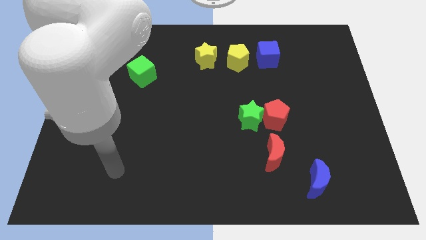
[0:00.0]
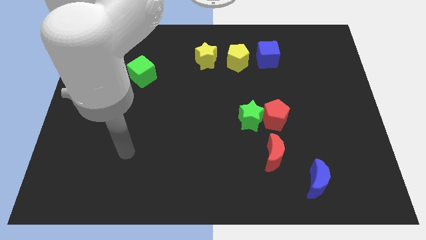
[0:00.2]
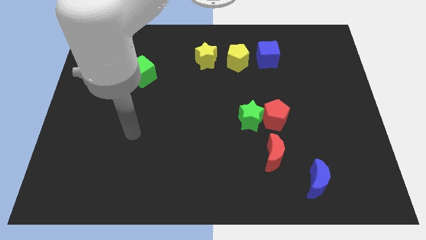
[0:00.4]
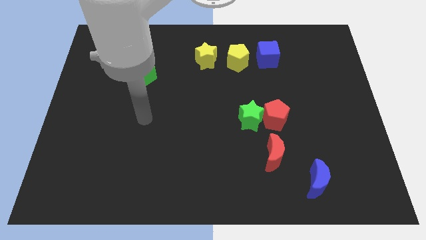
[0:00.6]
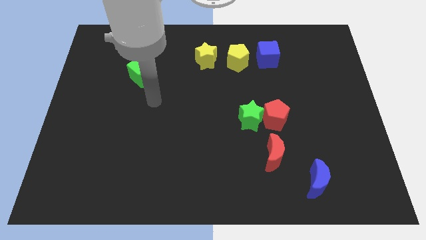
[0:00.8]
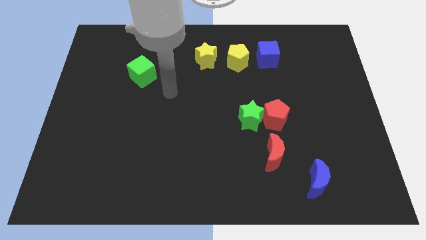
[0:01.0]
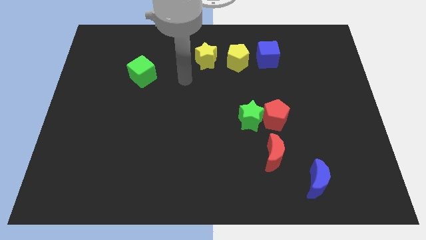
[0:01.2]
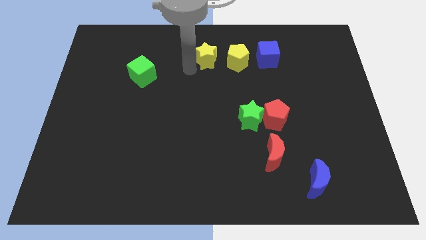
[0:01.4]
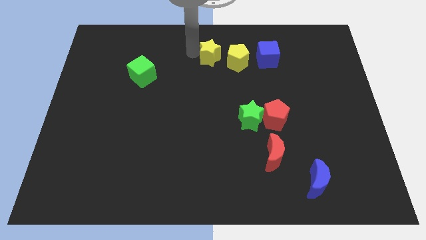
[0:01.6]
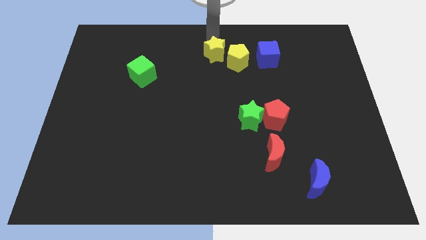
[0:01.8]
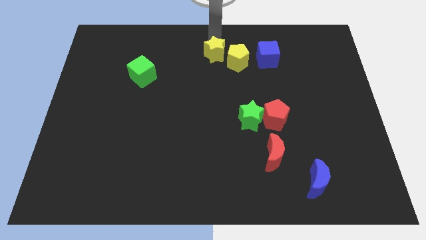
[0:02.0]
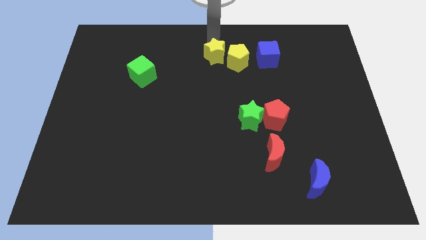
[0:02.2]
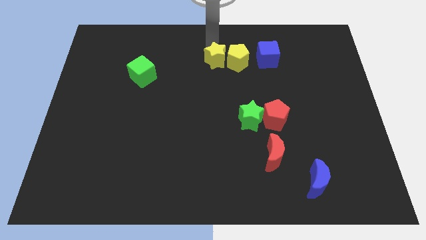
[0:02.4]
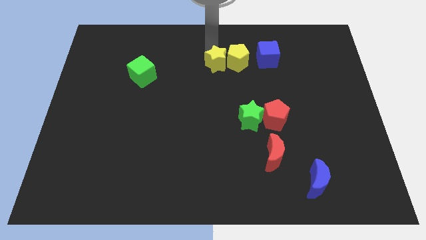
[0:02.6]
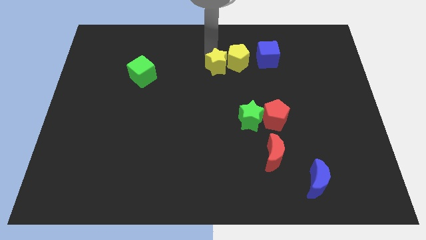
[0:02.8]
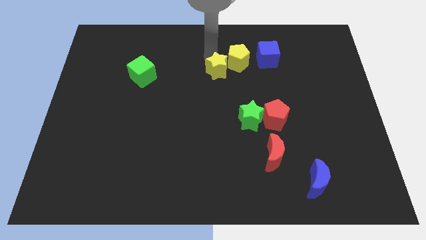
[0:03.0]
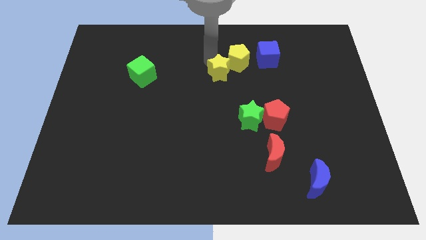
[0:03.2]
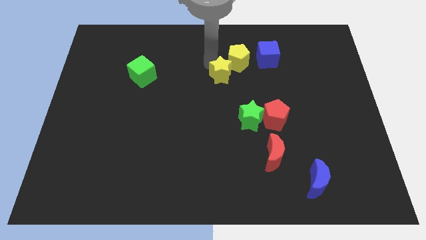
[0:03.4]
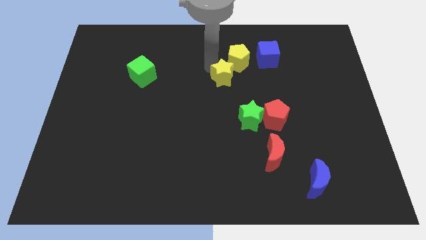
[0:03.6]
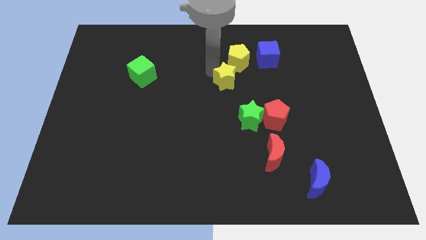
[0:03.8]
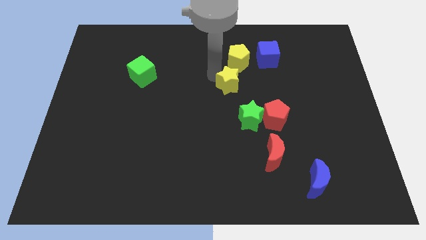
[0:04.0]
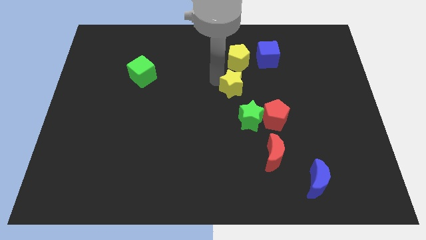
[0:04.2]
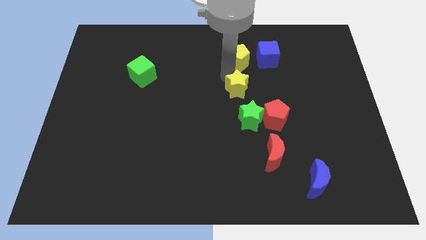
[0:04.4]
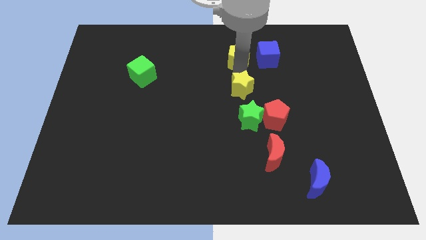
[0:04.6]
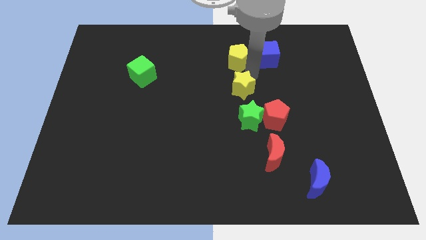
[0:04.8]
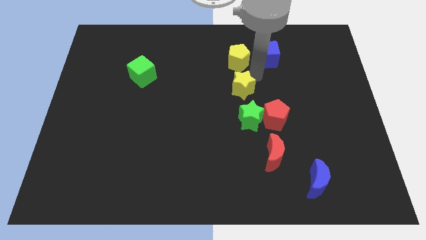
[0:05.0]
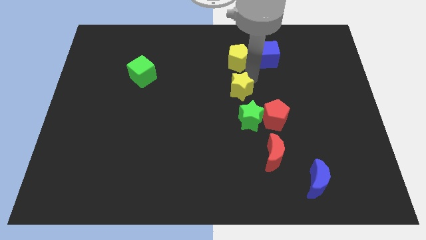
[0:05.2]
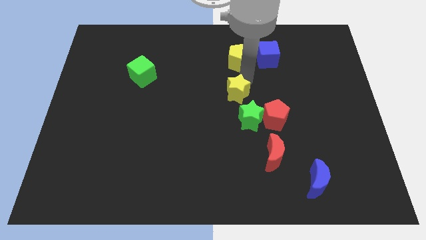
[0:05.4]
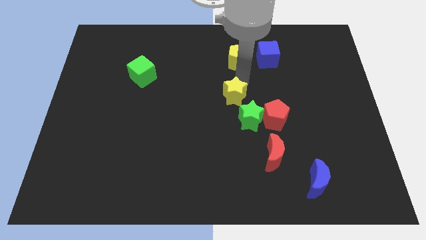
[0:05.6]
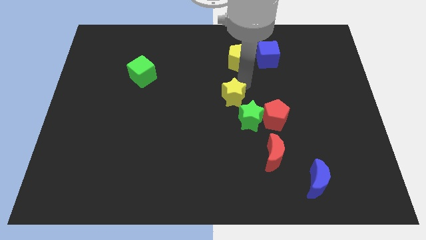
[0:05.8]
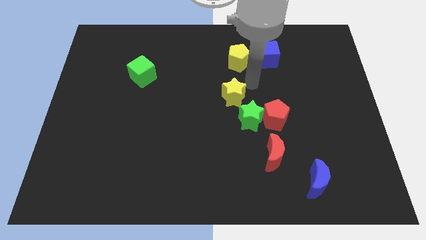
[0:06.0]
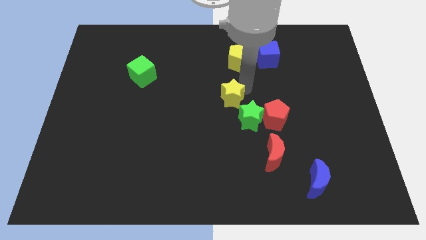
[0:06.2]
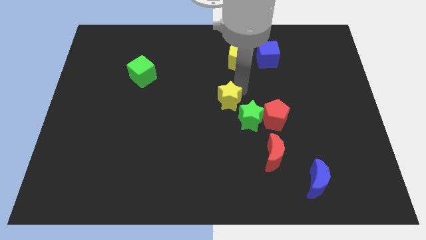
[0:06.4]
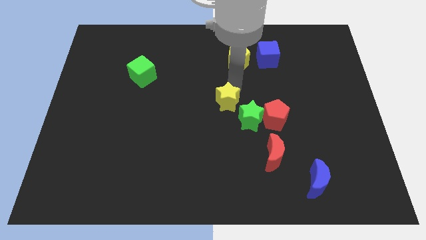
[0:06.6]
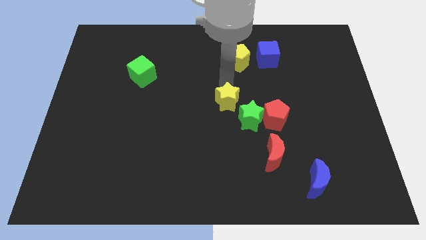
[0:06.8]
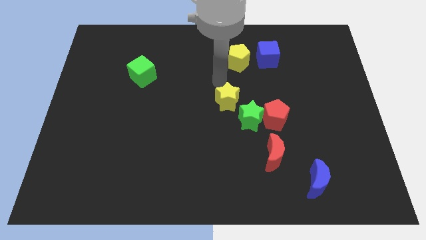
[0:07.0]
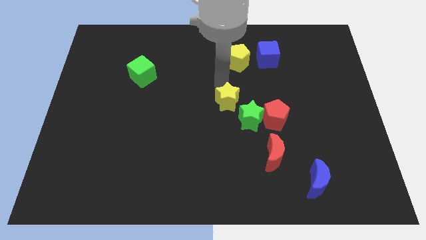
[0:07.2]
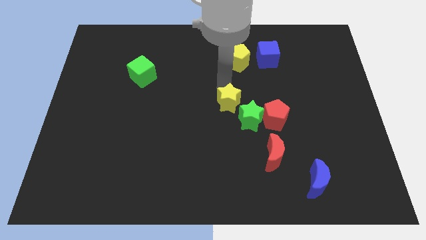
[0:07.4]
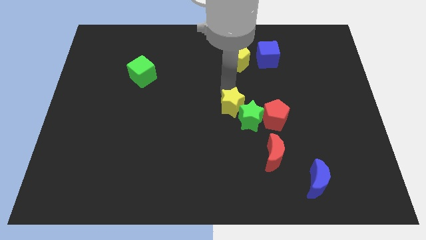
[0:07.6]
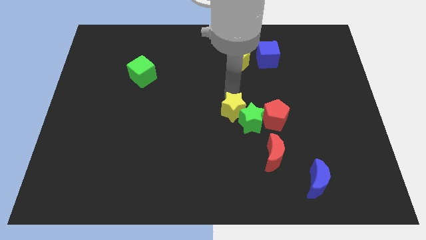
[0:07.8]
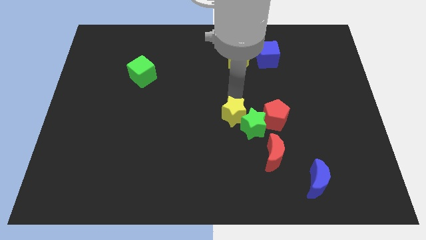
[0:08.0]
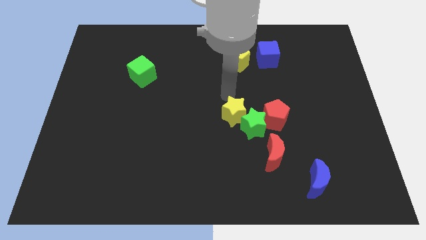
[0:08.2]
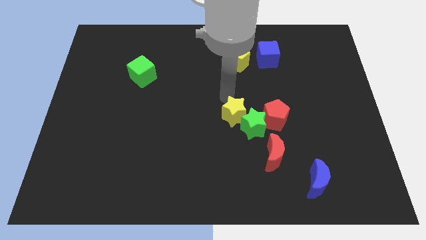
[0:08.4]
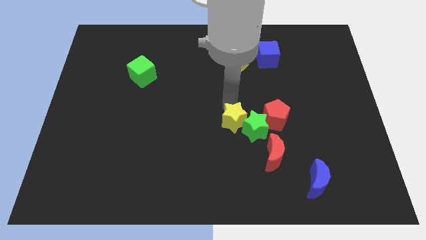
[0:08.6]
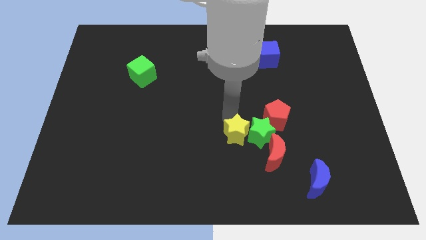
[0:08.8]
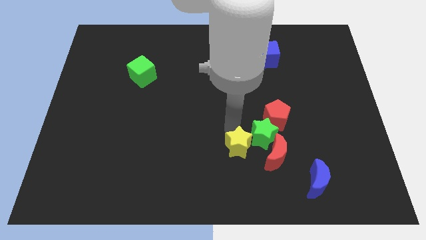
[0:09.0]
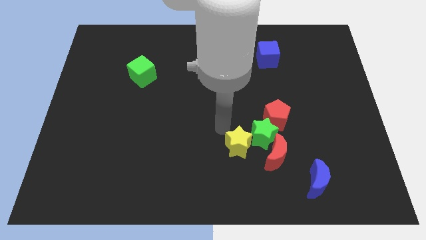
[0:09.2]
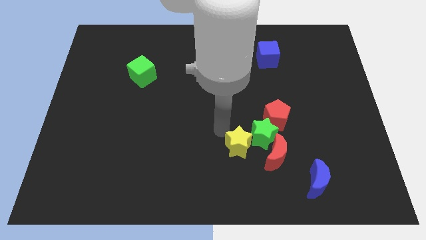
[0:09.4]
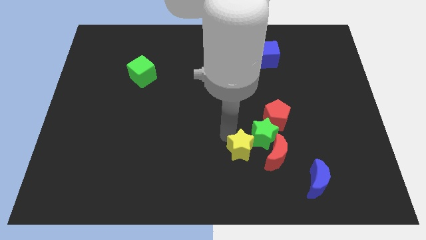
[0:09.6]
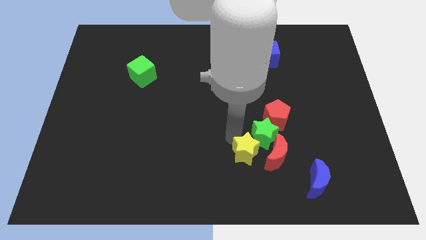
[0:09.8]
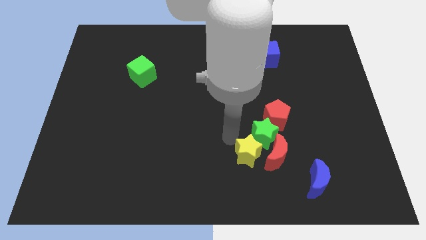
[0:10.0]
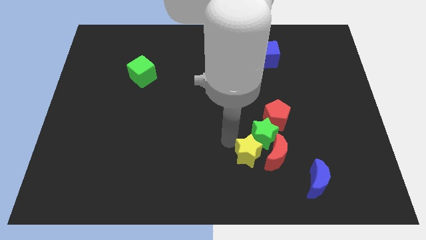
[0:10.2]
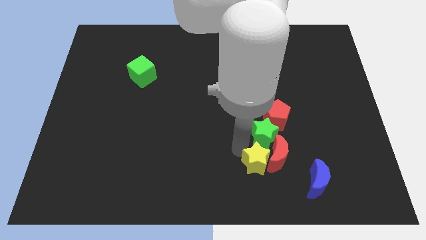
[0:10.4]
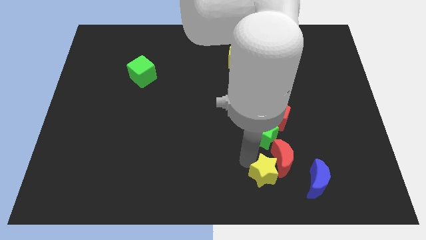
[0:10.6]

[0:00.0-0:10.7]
move the yellow star to the bottom side of the red pentagon

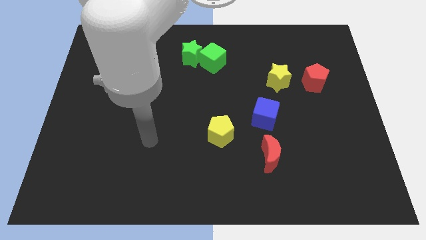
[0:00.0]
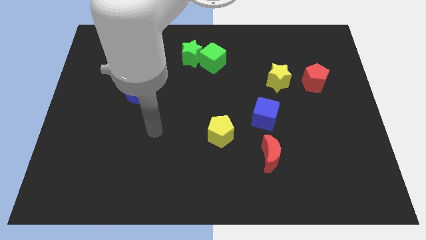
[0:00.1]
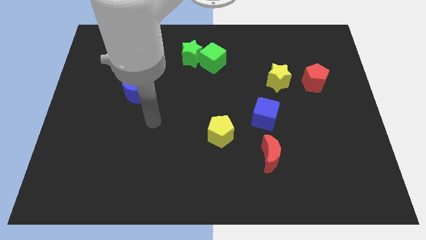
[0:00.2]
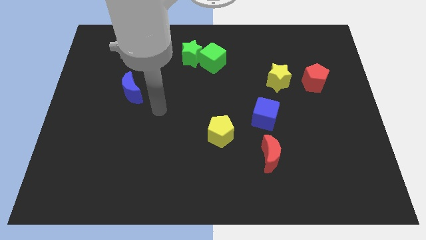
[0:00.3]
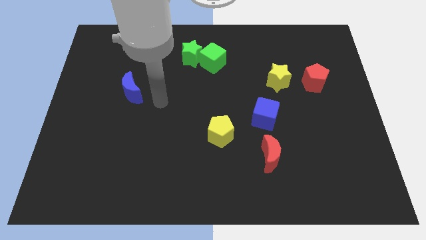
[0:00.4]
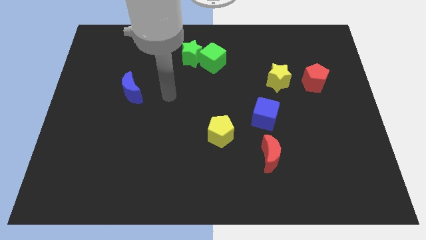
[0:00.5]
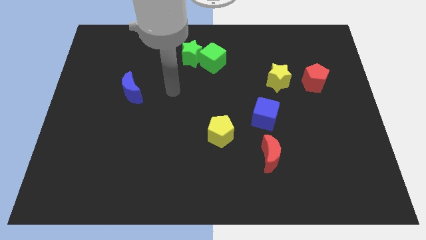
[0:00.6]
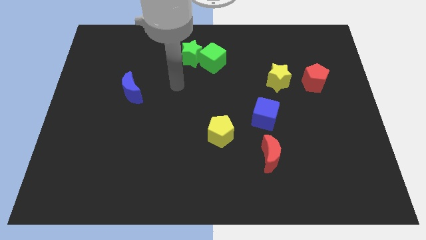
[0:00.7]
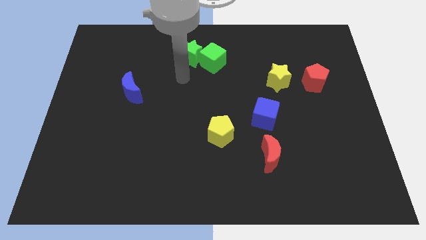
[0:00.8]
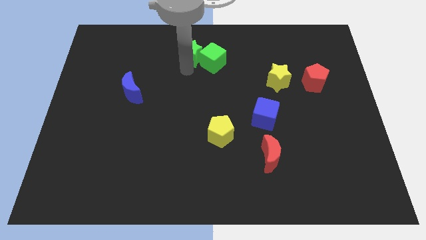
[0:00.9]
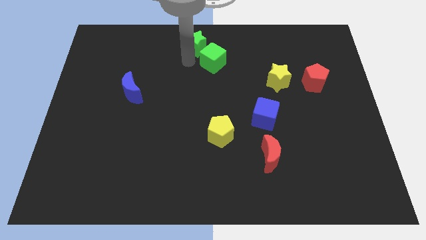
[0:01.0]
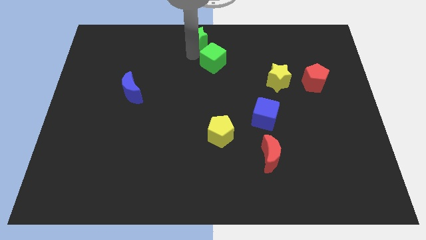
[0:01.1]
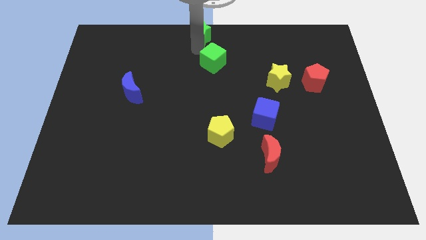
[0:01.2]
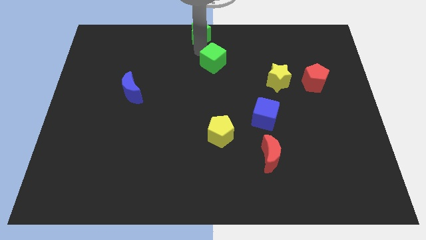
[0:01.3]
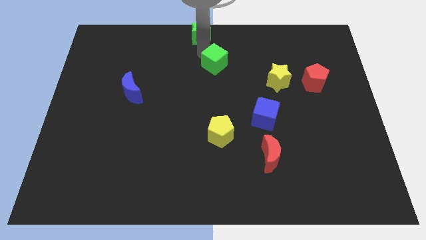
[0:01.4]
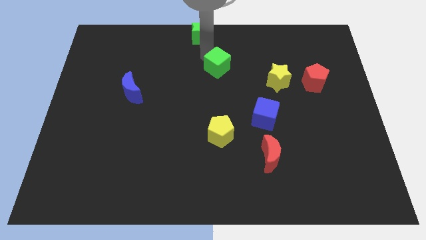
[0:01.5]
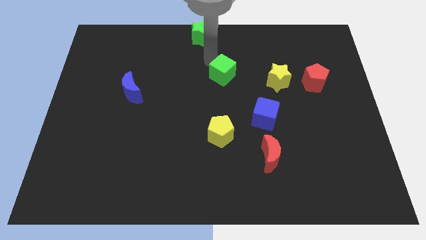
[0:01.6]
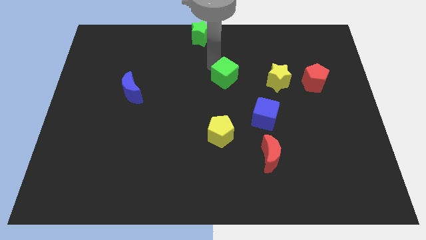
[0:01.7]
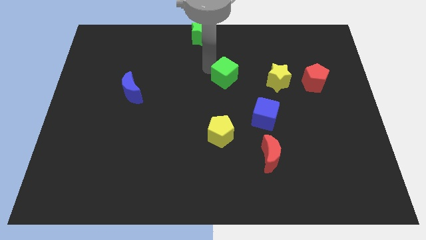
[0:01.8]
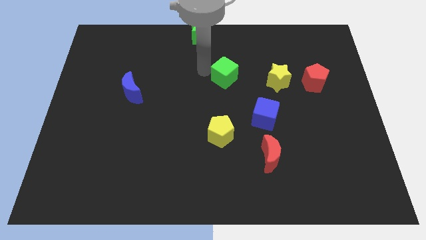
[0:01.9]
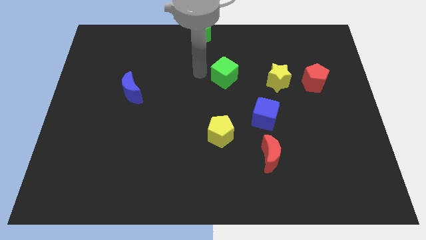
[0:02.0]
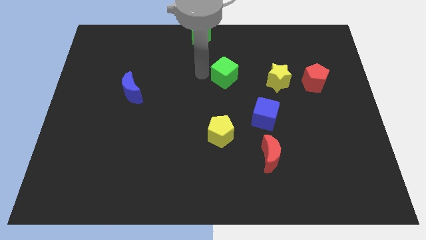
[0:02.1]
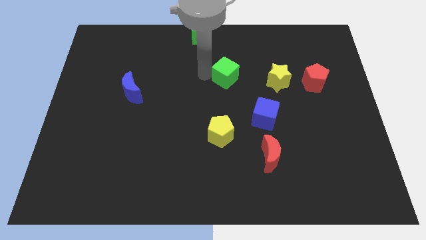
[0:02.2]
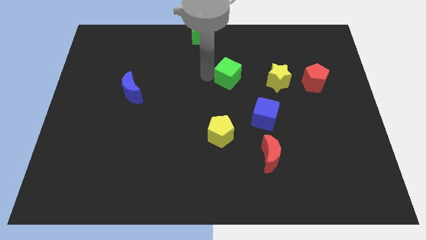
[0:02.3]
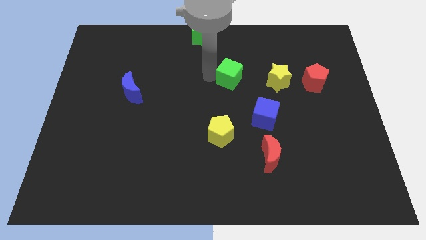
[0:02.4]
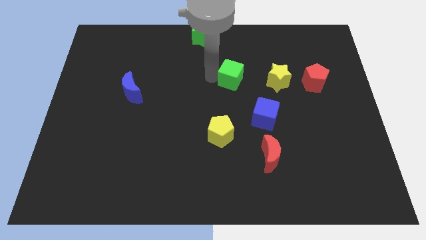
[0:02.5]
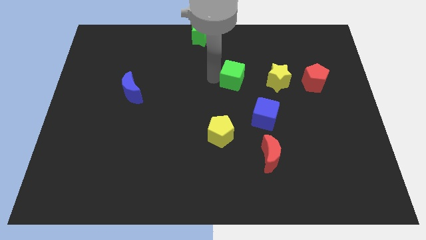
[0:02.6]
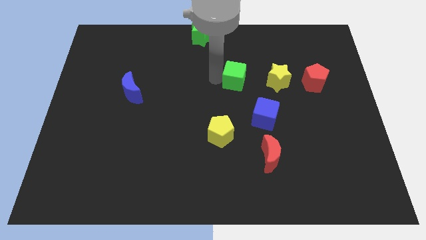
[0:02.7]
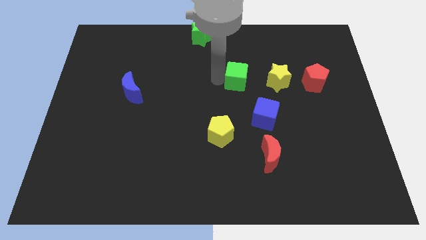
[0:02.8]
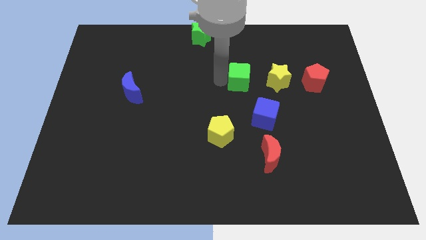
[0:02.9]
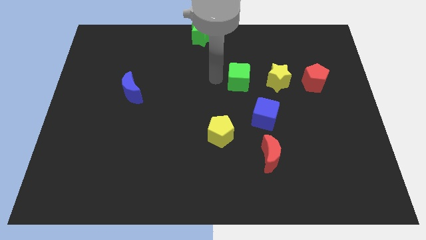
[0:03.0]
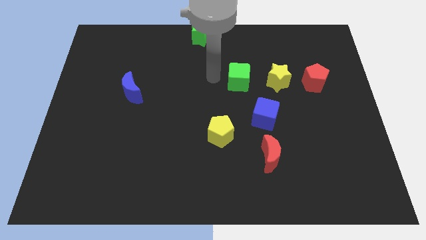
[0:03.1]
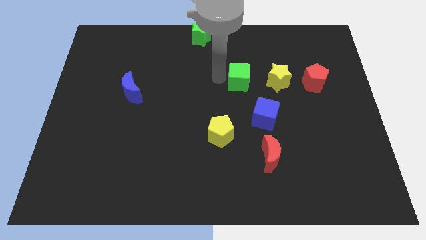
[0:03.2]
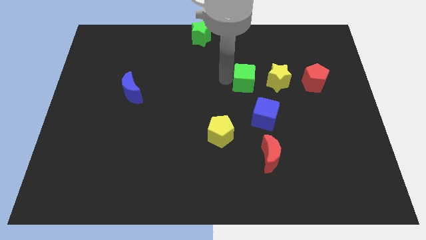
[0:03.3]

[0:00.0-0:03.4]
push the green cube above the blue cube
